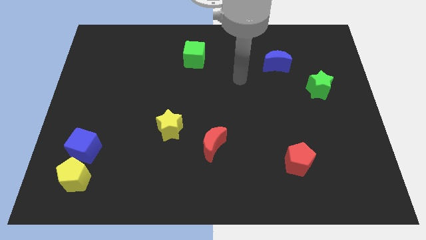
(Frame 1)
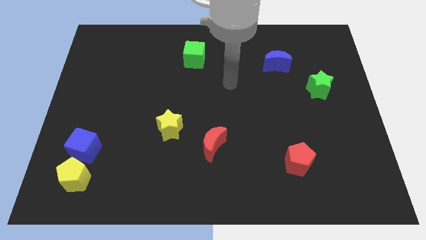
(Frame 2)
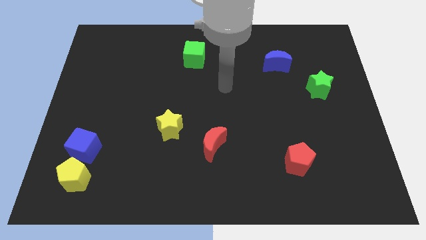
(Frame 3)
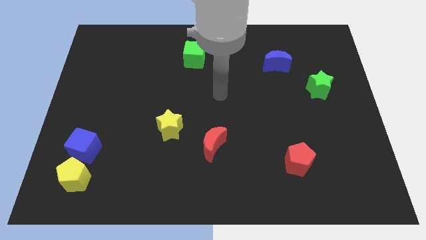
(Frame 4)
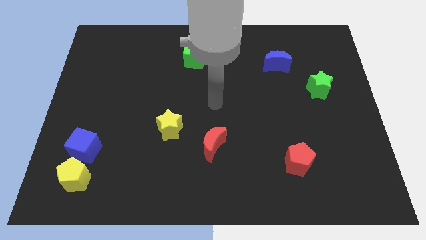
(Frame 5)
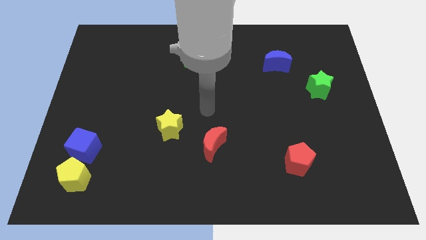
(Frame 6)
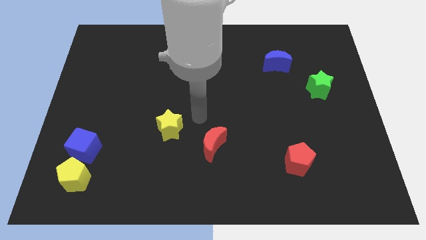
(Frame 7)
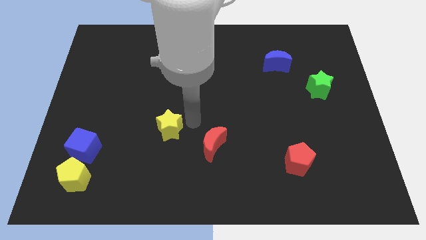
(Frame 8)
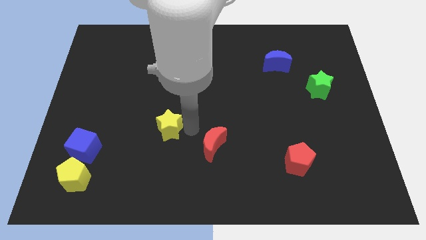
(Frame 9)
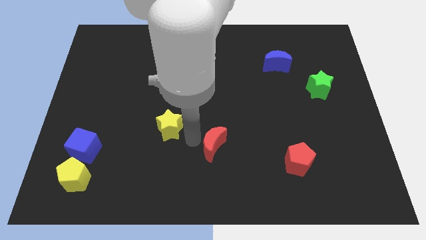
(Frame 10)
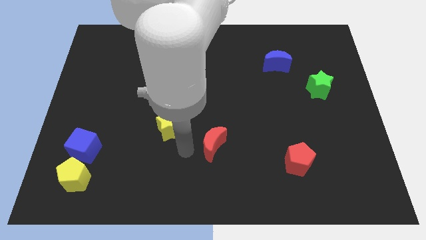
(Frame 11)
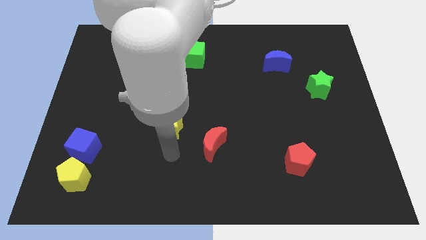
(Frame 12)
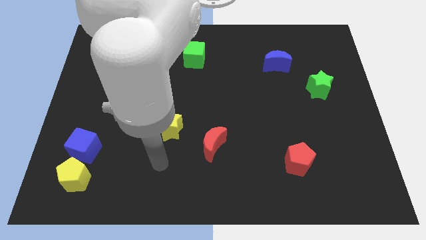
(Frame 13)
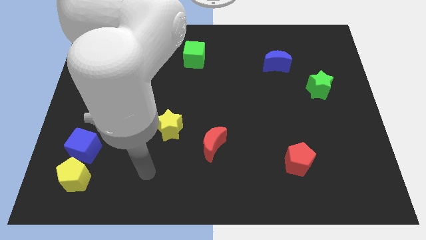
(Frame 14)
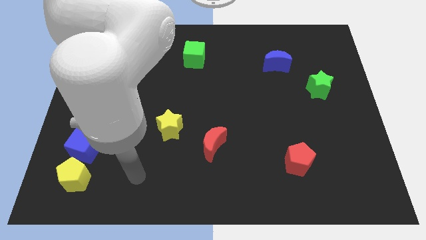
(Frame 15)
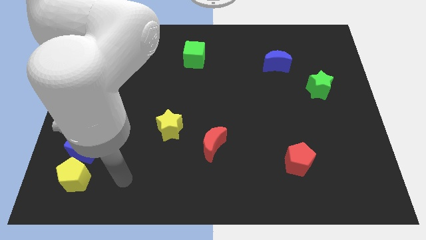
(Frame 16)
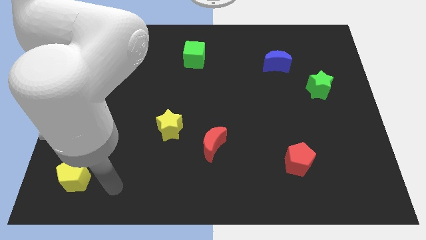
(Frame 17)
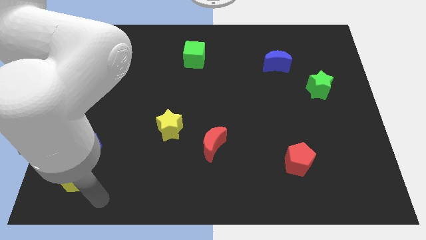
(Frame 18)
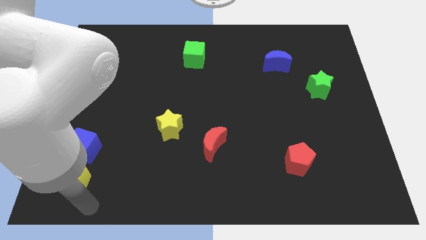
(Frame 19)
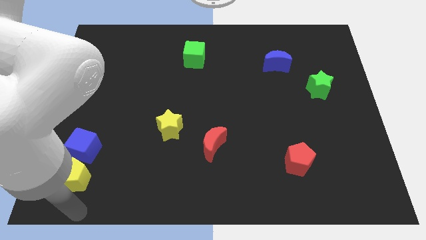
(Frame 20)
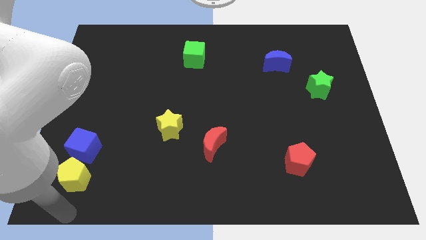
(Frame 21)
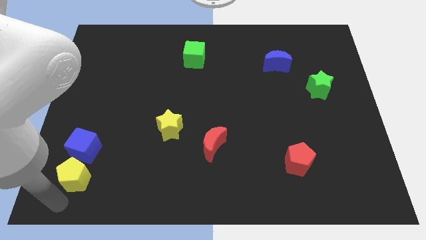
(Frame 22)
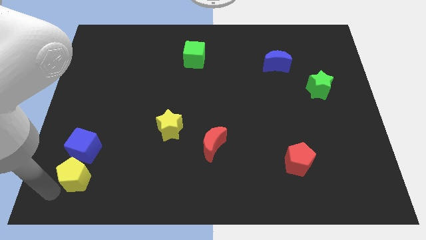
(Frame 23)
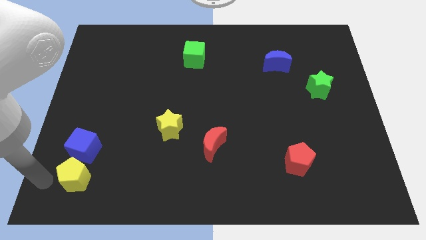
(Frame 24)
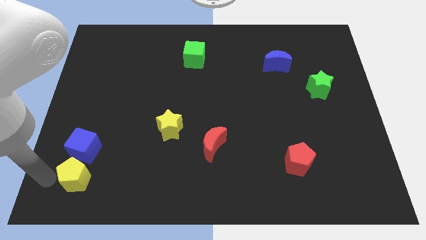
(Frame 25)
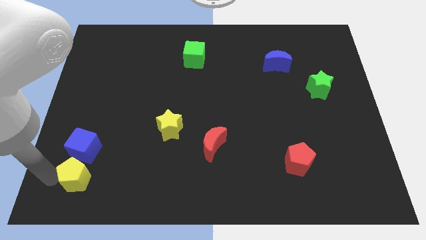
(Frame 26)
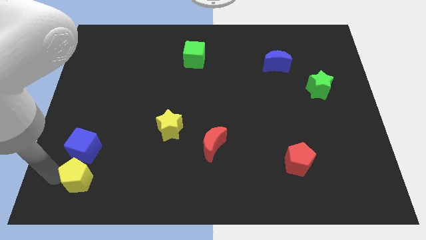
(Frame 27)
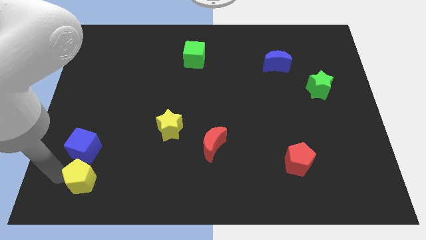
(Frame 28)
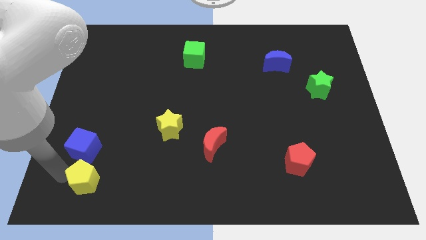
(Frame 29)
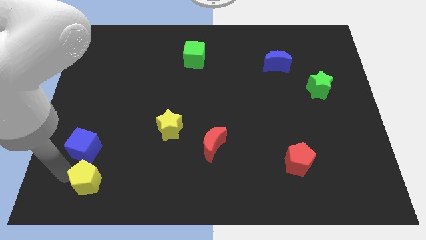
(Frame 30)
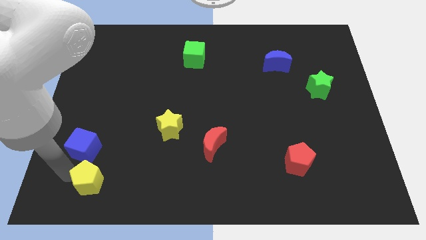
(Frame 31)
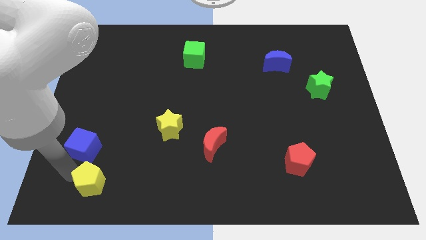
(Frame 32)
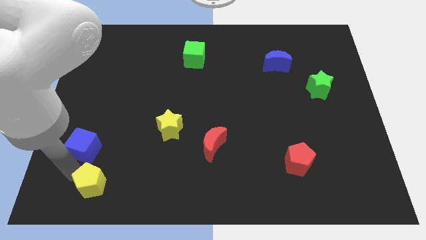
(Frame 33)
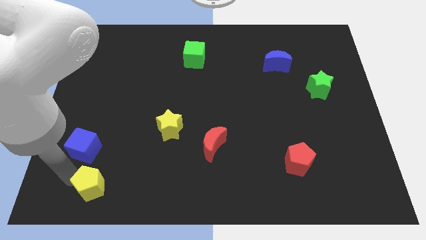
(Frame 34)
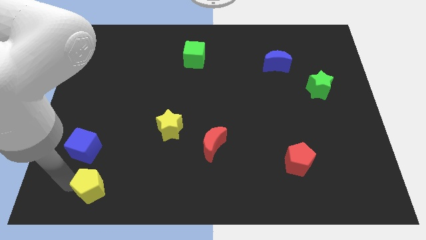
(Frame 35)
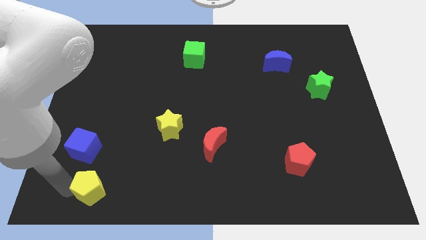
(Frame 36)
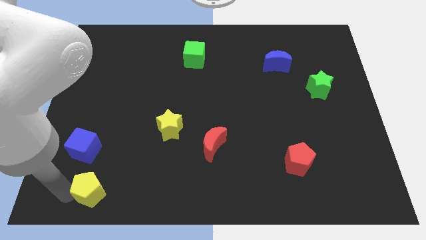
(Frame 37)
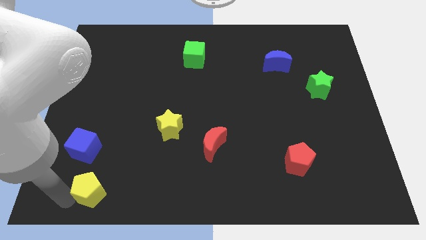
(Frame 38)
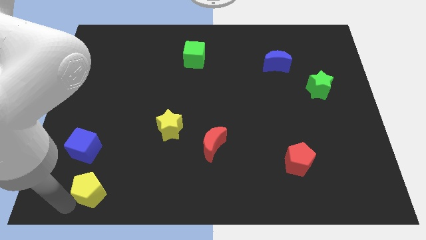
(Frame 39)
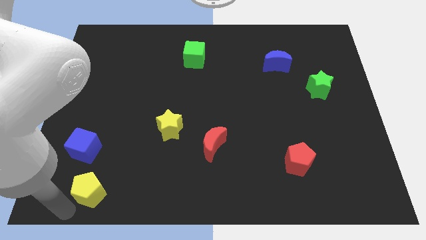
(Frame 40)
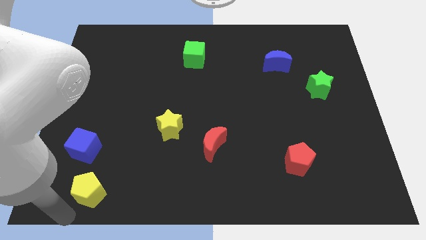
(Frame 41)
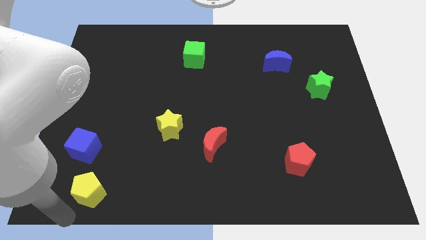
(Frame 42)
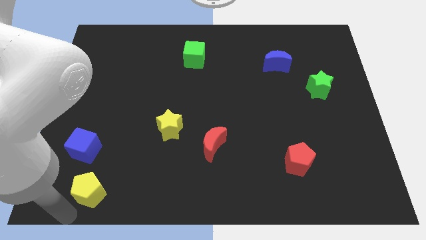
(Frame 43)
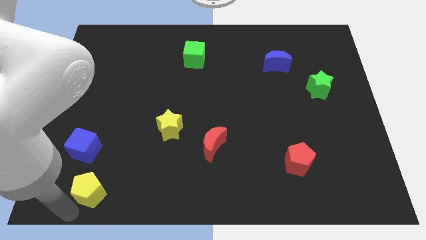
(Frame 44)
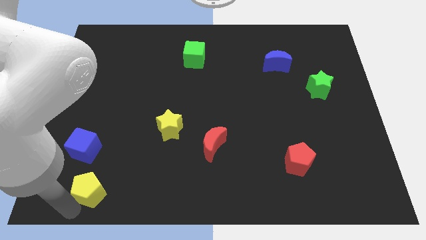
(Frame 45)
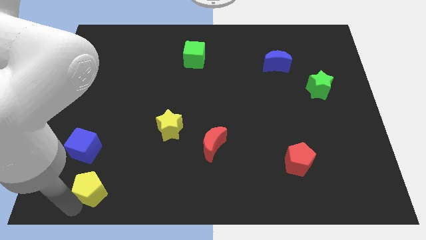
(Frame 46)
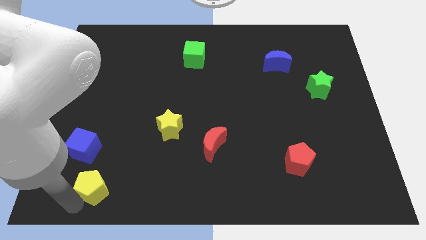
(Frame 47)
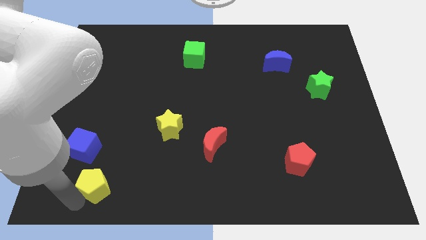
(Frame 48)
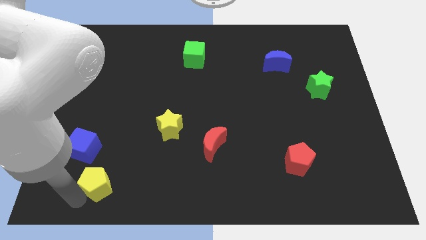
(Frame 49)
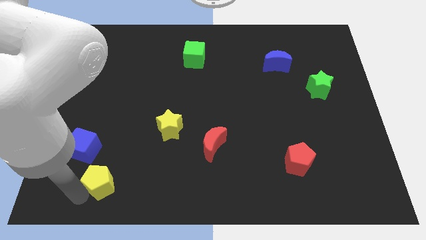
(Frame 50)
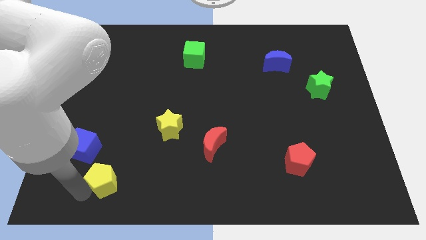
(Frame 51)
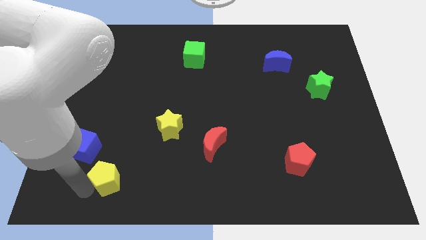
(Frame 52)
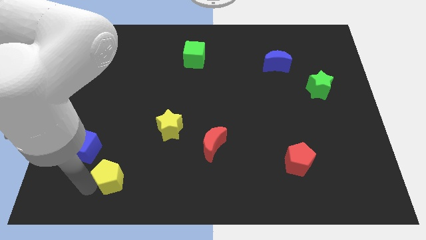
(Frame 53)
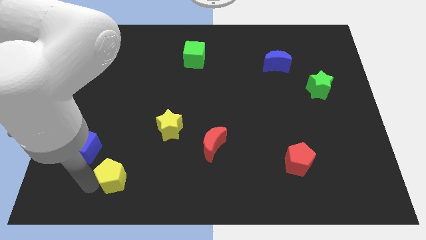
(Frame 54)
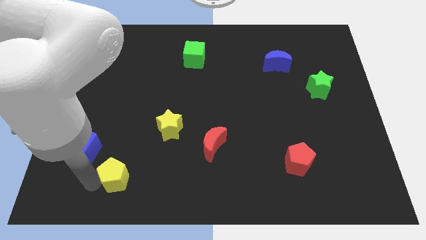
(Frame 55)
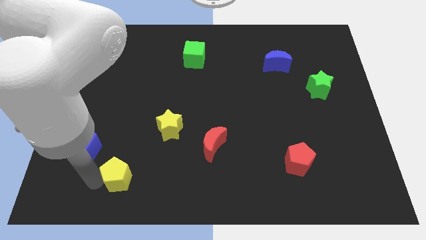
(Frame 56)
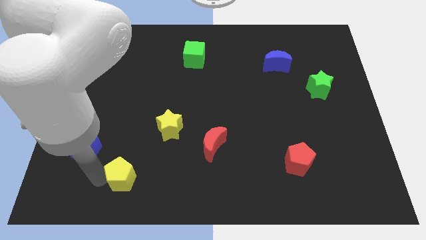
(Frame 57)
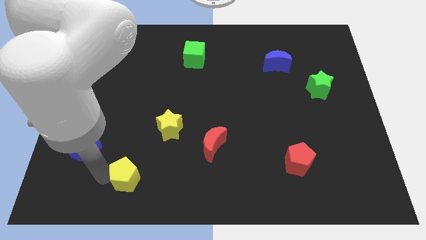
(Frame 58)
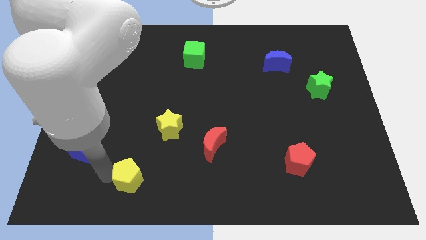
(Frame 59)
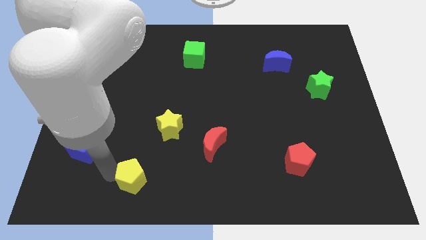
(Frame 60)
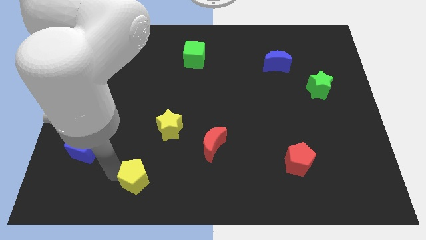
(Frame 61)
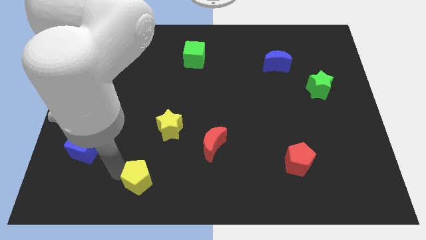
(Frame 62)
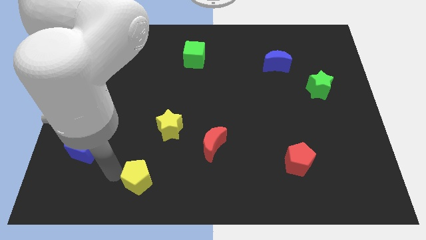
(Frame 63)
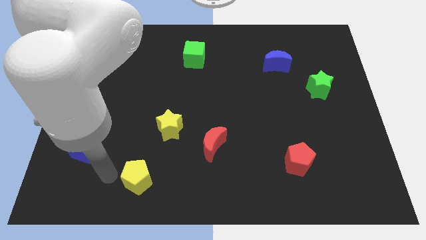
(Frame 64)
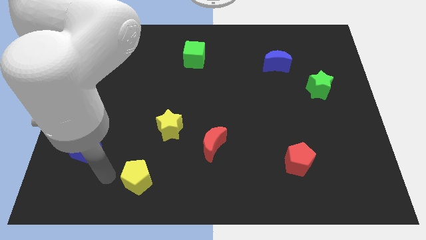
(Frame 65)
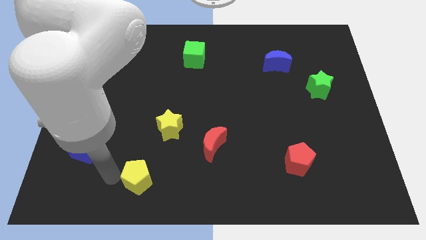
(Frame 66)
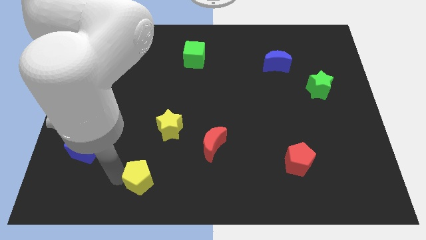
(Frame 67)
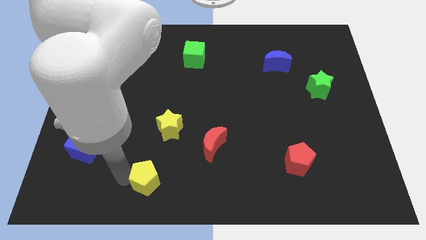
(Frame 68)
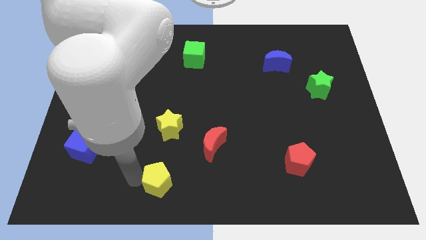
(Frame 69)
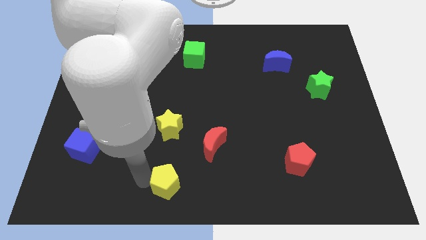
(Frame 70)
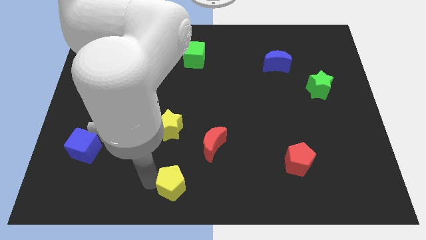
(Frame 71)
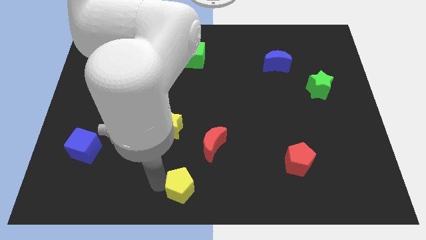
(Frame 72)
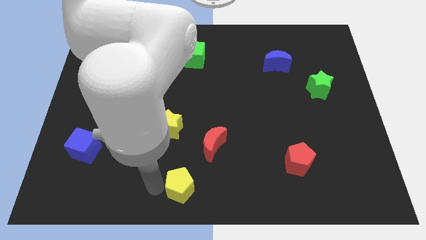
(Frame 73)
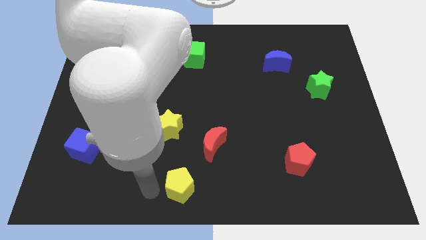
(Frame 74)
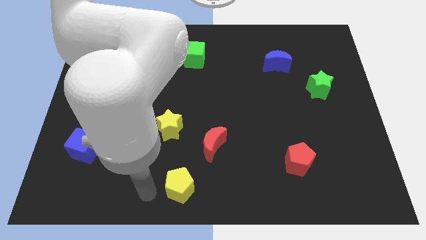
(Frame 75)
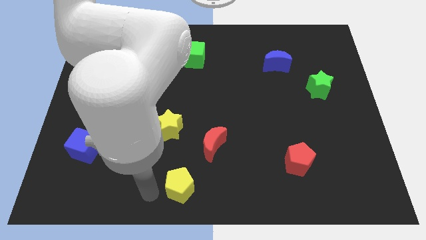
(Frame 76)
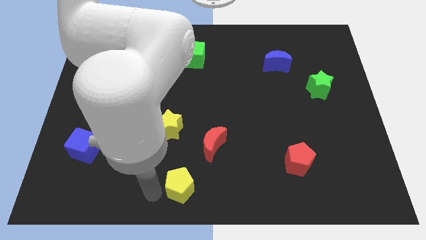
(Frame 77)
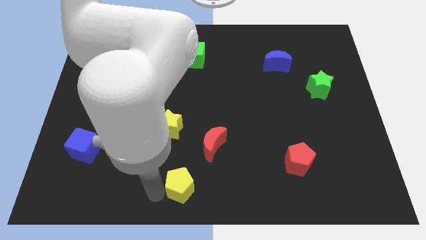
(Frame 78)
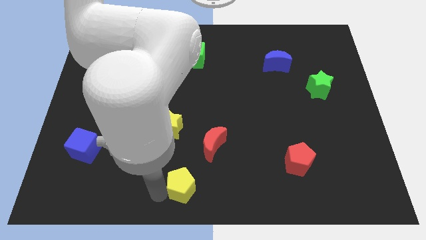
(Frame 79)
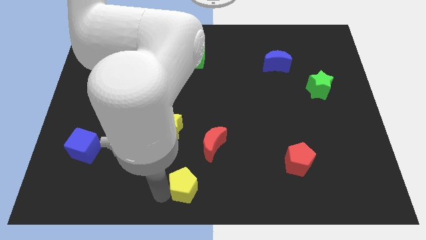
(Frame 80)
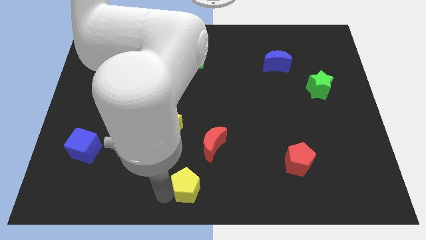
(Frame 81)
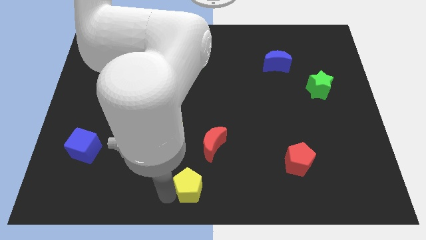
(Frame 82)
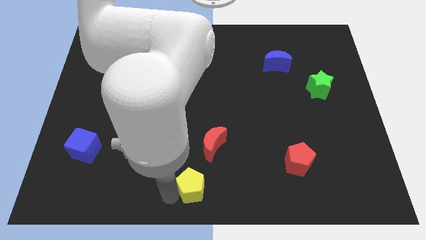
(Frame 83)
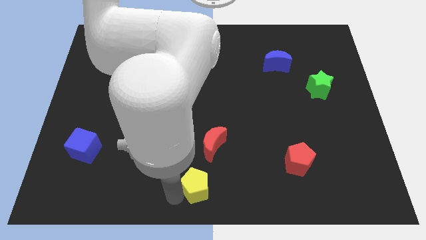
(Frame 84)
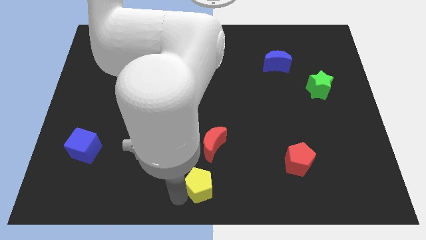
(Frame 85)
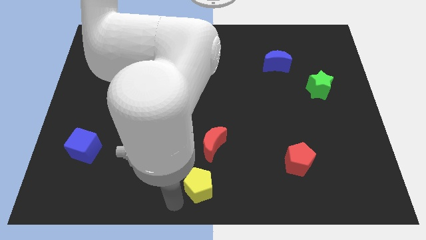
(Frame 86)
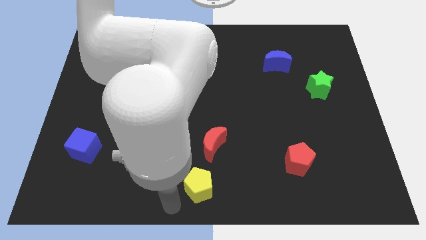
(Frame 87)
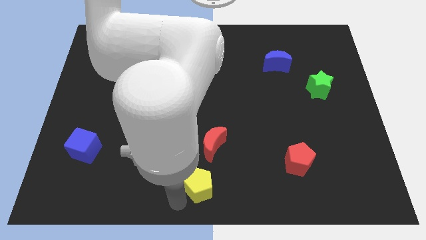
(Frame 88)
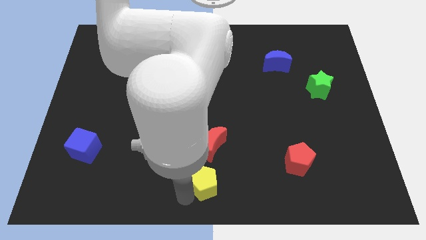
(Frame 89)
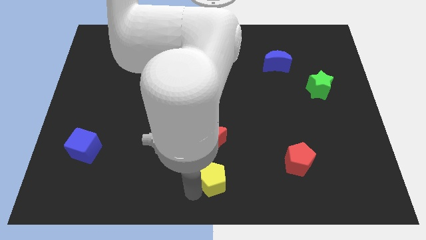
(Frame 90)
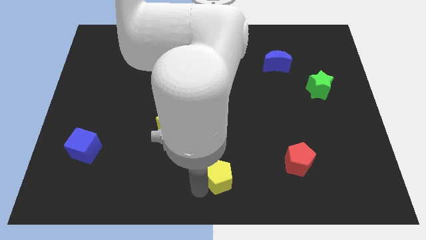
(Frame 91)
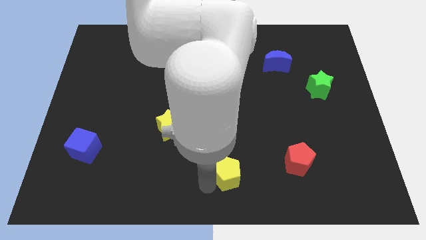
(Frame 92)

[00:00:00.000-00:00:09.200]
put the yellow pentagon just left of the red pentagon
